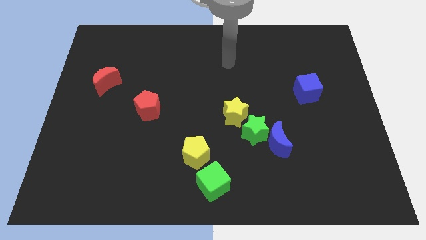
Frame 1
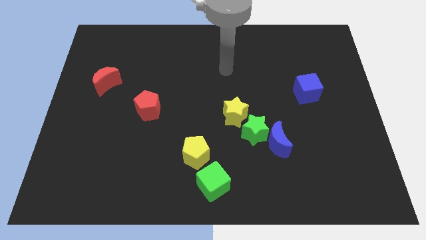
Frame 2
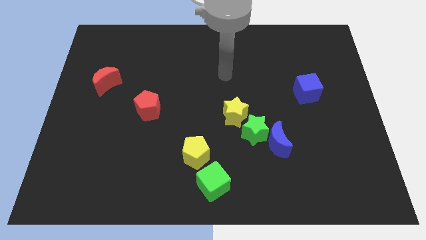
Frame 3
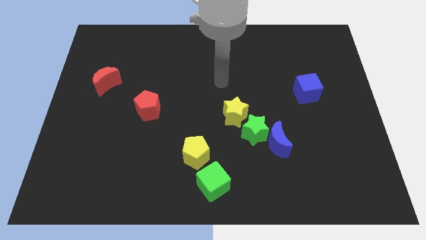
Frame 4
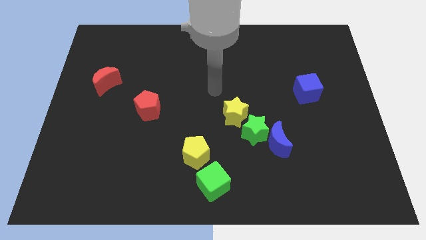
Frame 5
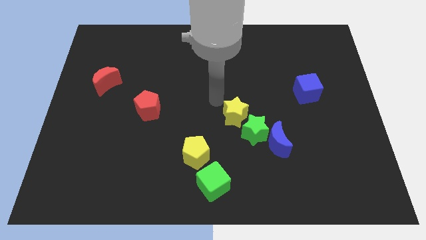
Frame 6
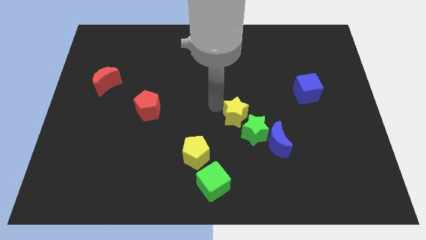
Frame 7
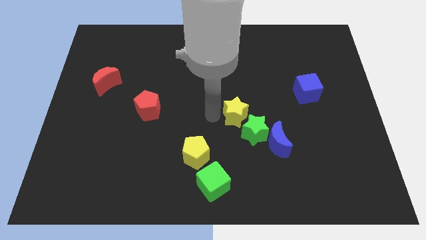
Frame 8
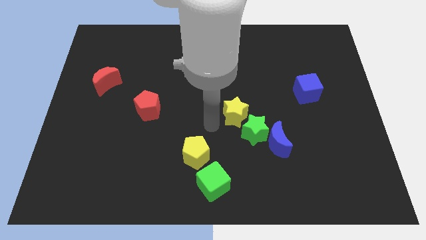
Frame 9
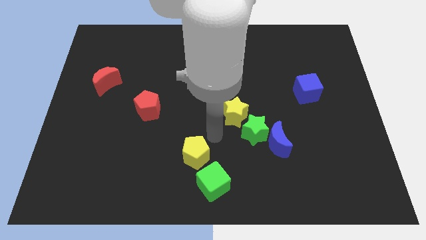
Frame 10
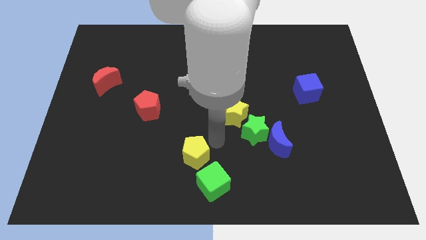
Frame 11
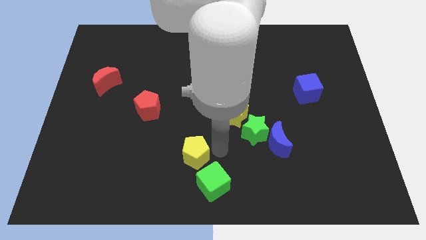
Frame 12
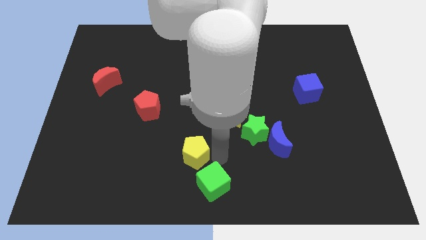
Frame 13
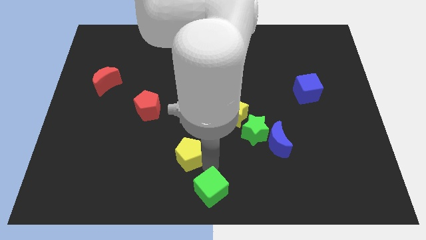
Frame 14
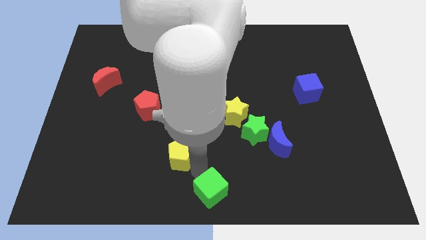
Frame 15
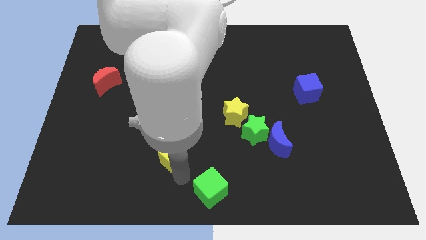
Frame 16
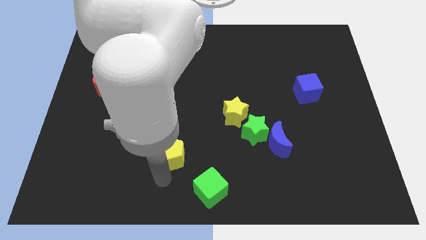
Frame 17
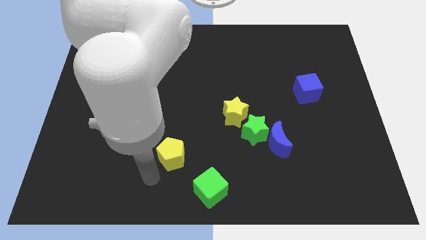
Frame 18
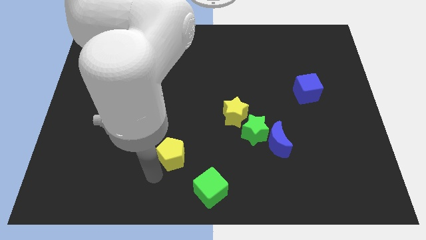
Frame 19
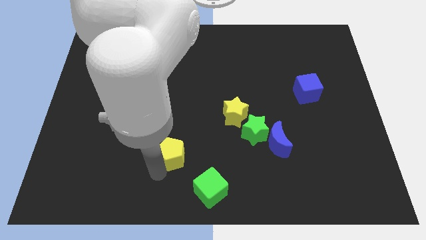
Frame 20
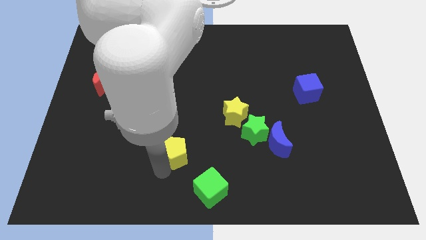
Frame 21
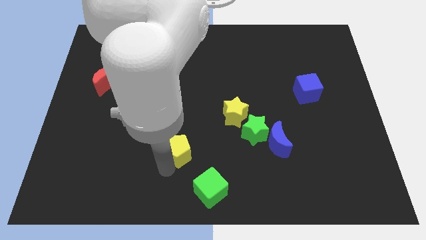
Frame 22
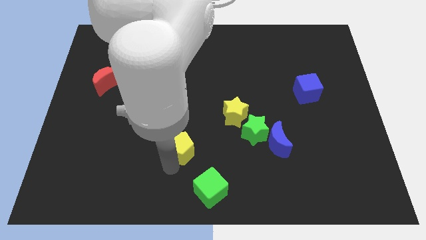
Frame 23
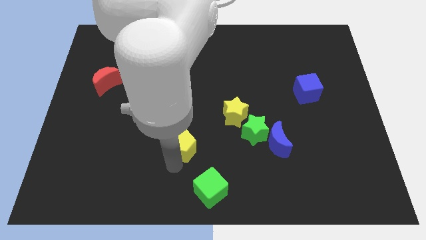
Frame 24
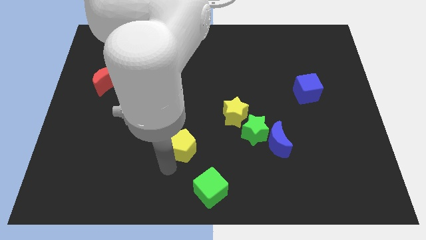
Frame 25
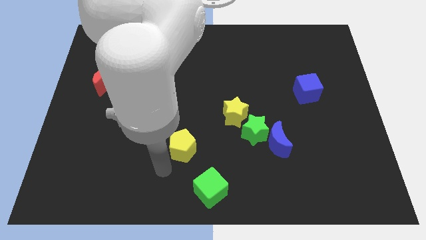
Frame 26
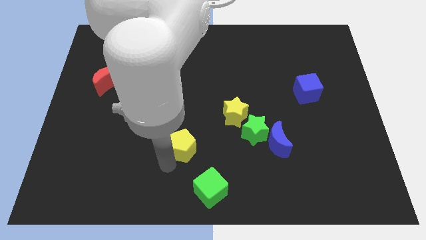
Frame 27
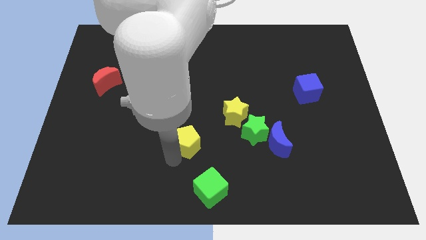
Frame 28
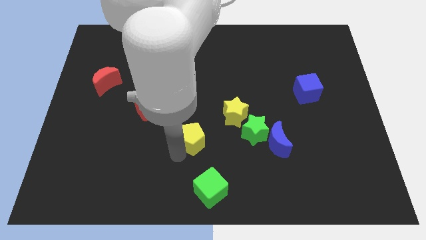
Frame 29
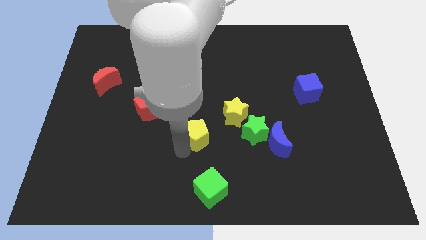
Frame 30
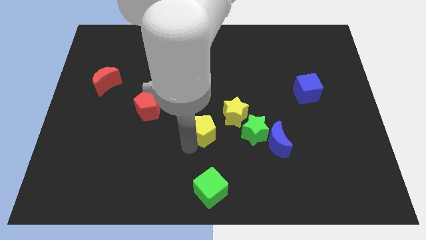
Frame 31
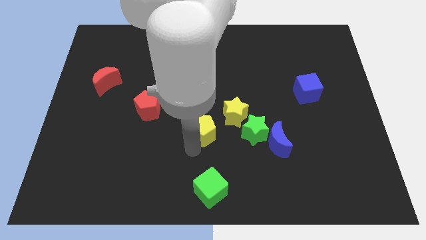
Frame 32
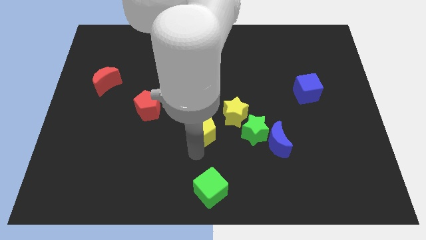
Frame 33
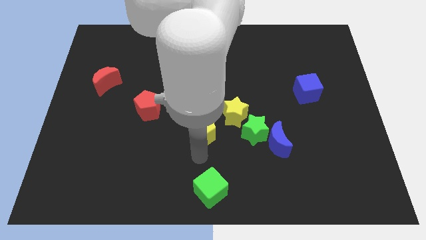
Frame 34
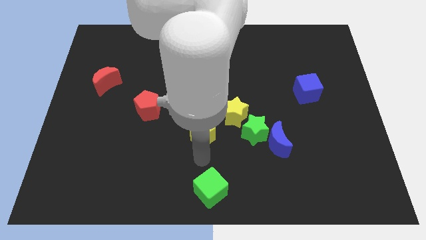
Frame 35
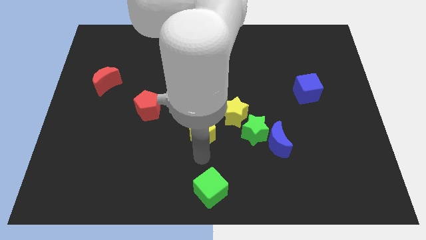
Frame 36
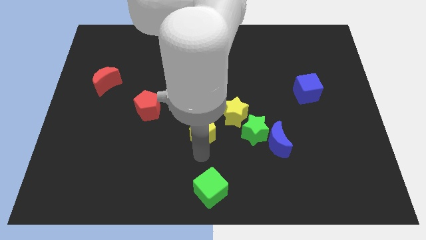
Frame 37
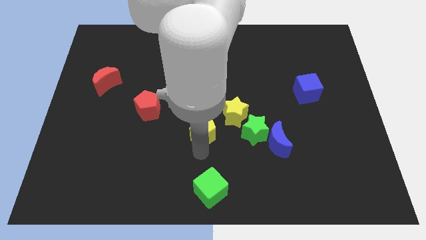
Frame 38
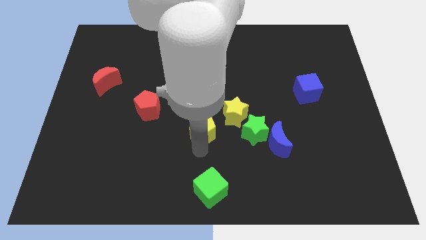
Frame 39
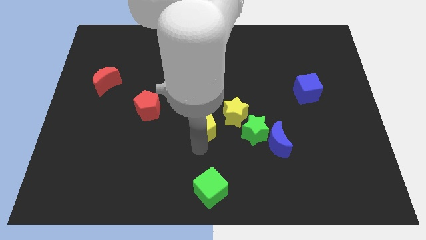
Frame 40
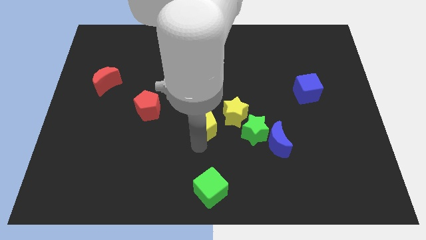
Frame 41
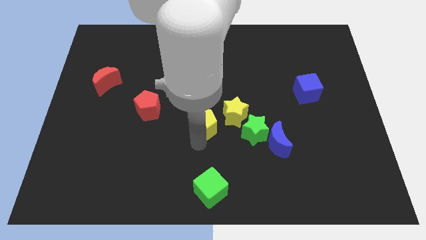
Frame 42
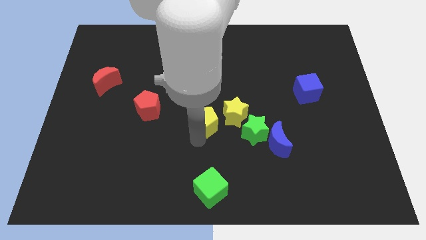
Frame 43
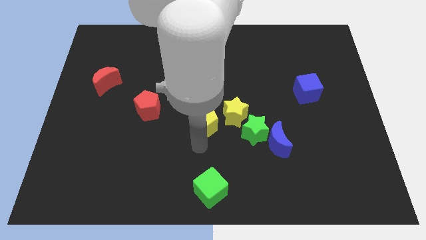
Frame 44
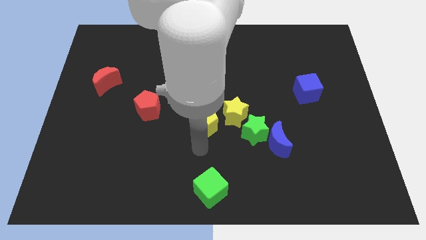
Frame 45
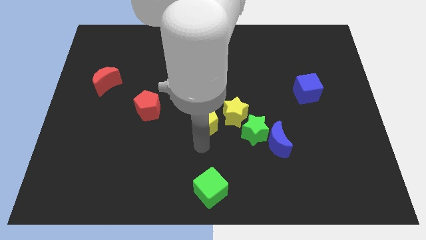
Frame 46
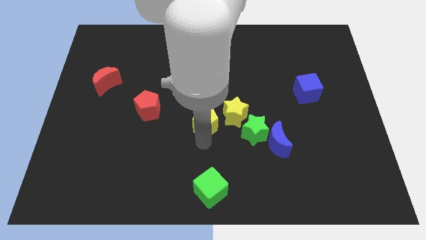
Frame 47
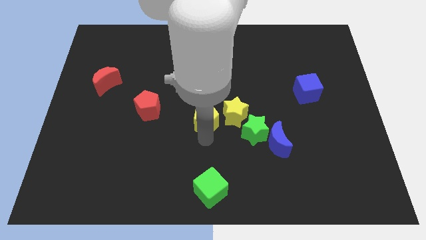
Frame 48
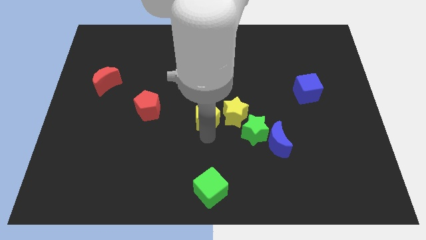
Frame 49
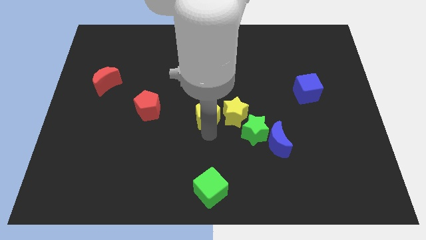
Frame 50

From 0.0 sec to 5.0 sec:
put the yellow pentagon to the top left of the yellow star

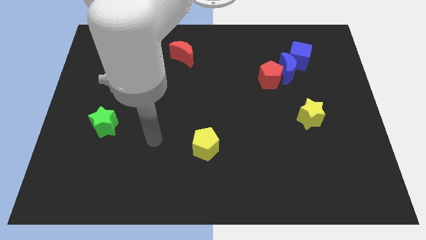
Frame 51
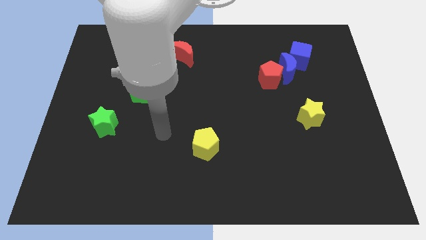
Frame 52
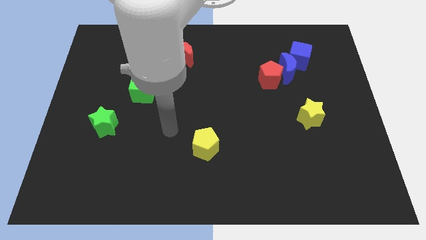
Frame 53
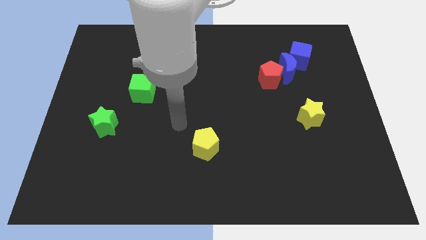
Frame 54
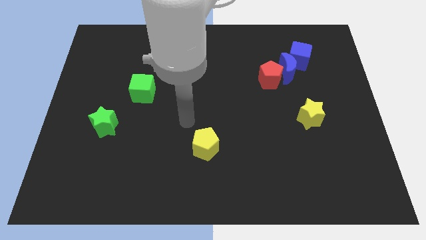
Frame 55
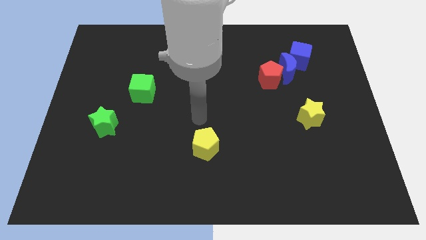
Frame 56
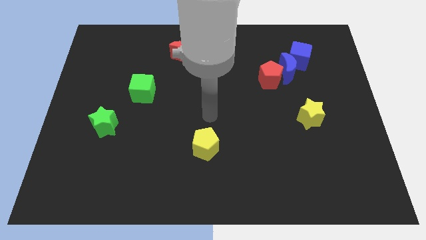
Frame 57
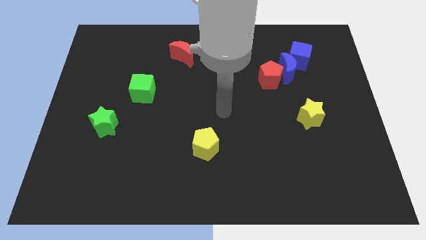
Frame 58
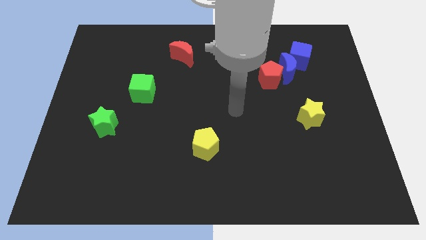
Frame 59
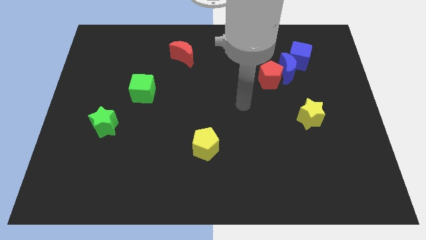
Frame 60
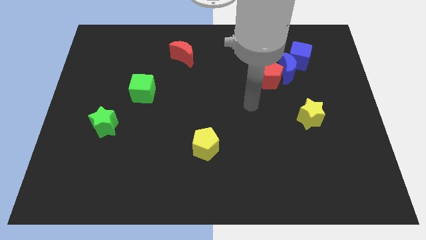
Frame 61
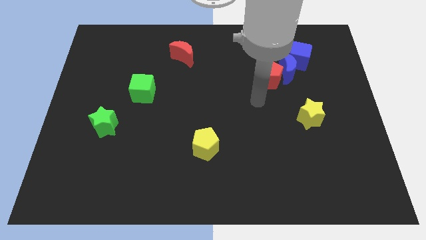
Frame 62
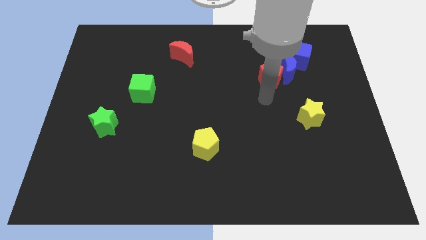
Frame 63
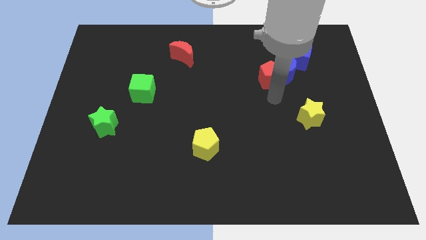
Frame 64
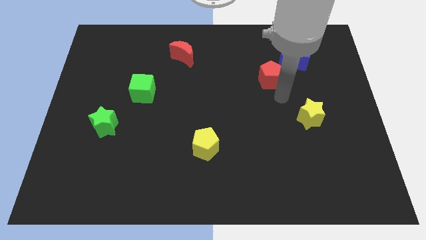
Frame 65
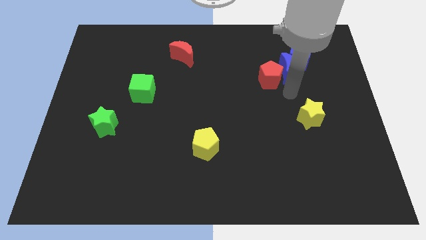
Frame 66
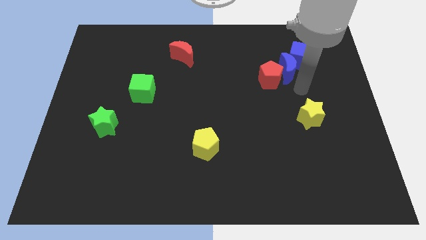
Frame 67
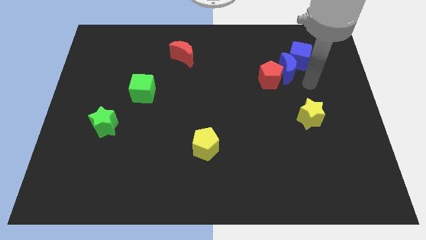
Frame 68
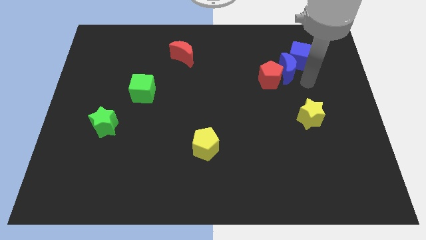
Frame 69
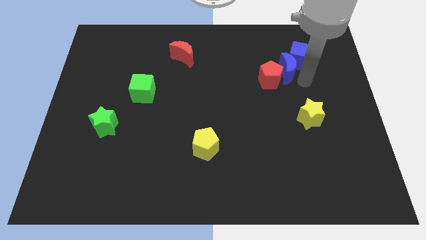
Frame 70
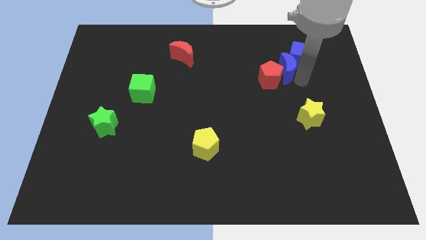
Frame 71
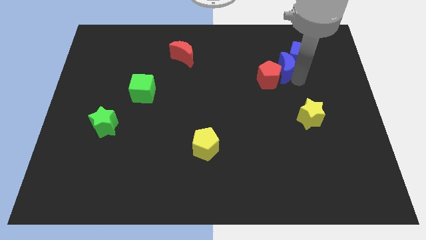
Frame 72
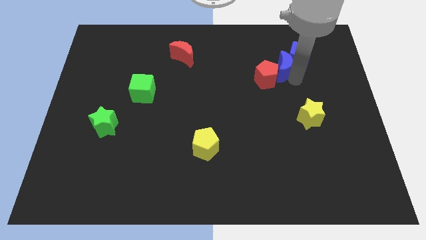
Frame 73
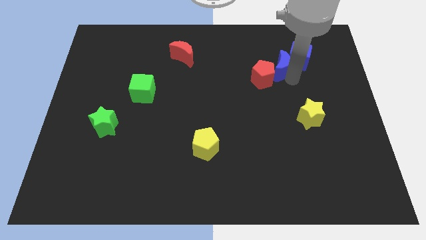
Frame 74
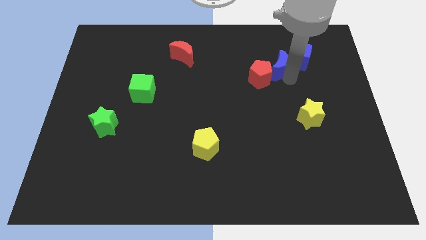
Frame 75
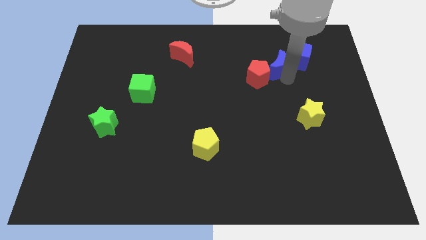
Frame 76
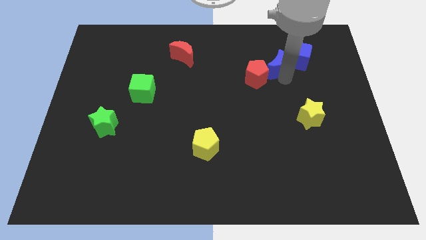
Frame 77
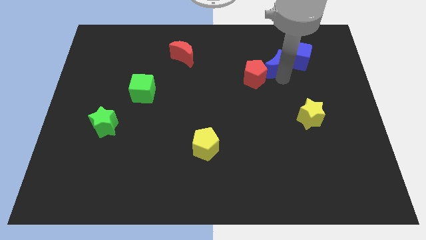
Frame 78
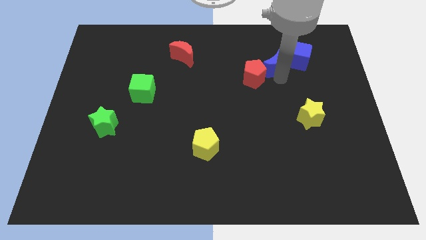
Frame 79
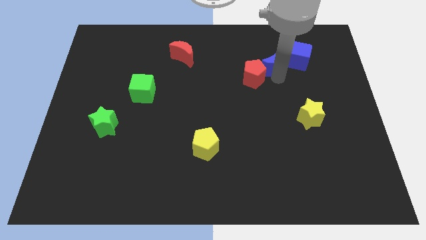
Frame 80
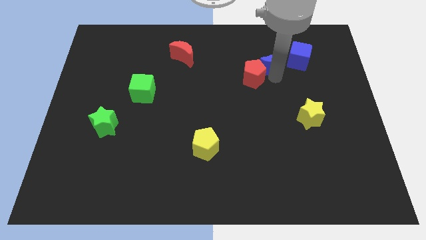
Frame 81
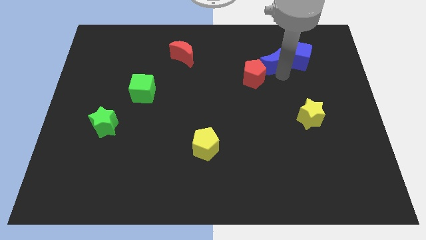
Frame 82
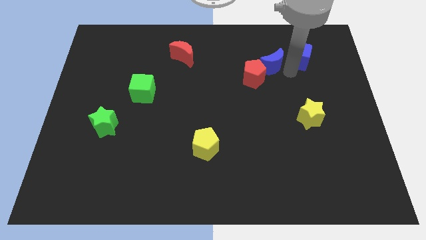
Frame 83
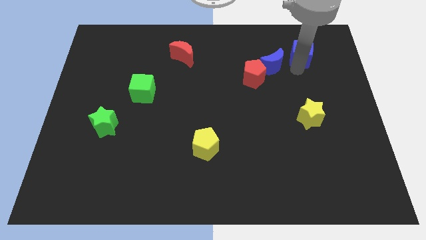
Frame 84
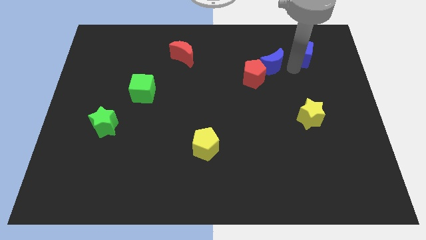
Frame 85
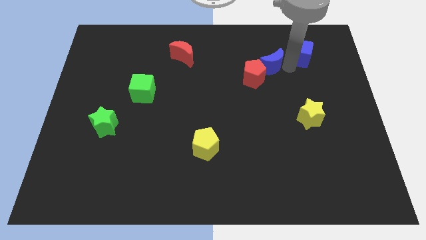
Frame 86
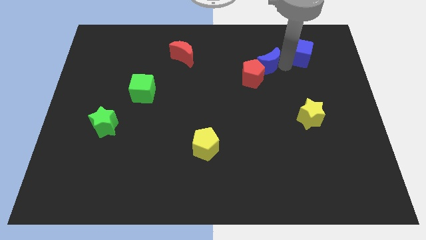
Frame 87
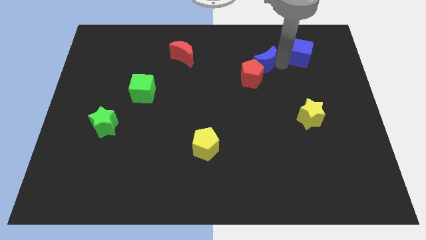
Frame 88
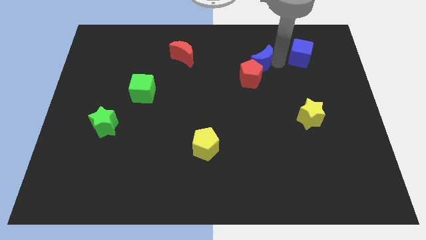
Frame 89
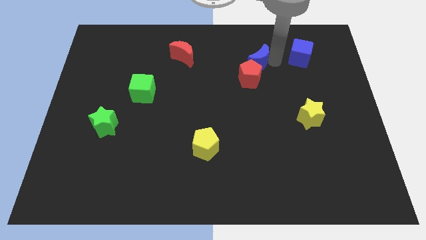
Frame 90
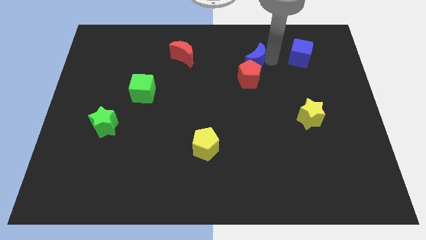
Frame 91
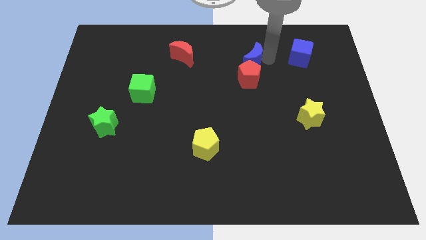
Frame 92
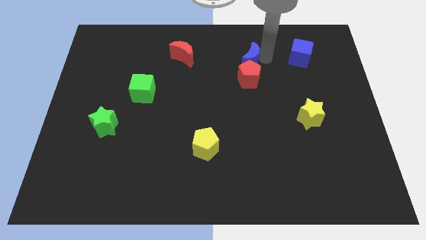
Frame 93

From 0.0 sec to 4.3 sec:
push the blue moon to the top left side of the red pentagon
